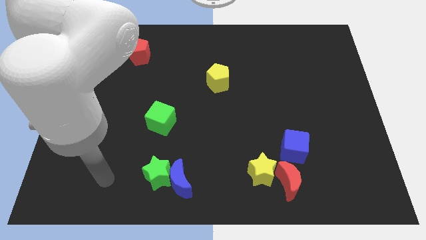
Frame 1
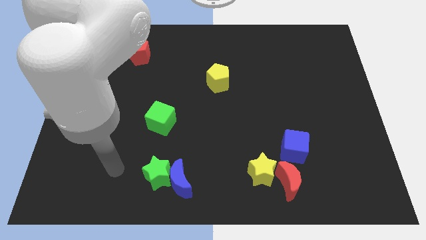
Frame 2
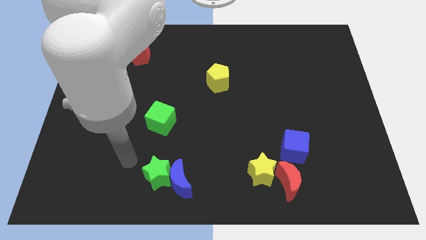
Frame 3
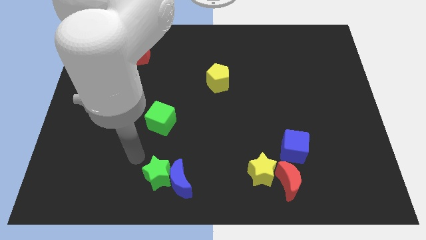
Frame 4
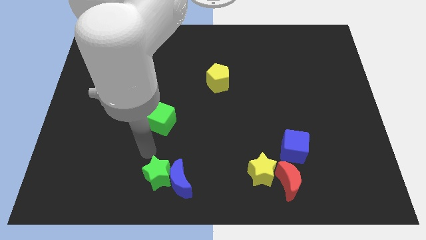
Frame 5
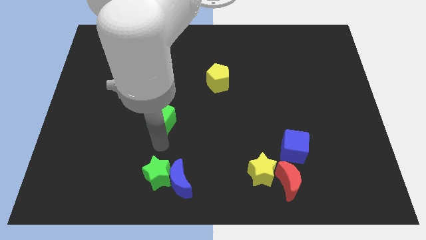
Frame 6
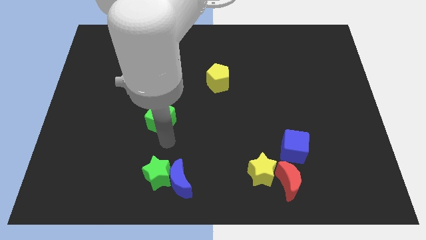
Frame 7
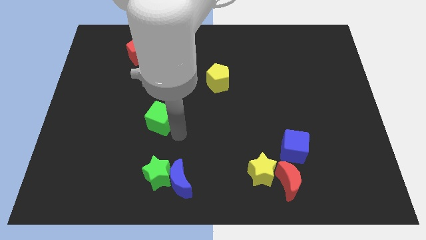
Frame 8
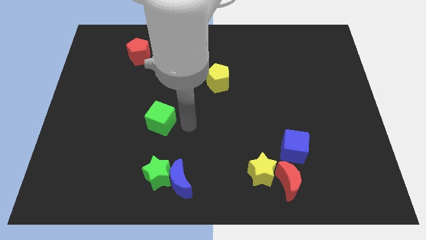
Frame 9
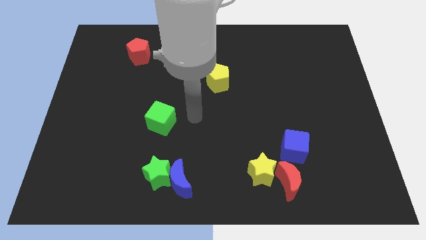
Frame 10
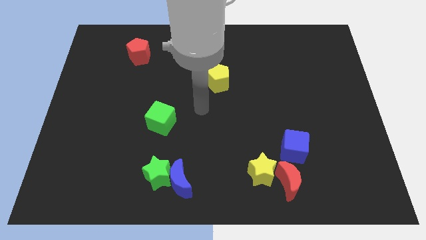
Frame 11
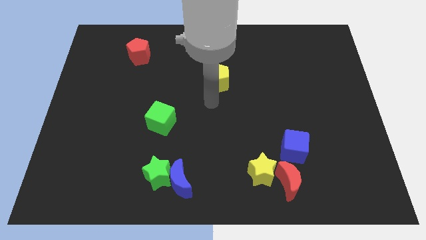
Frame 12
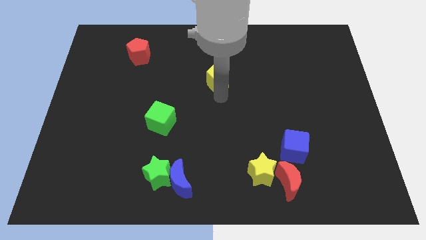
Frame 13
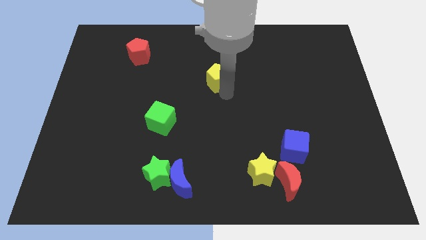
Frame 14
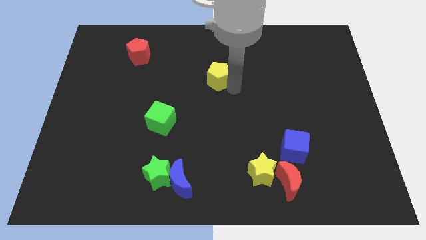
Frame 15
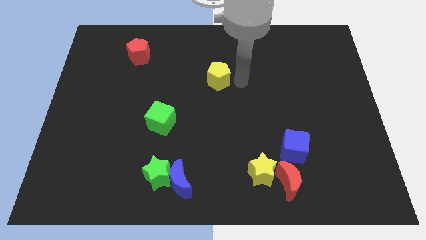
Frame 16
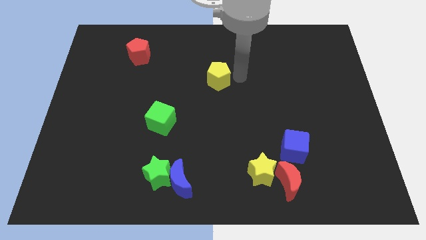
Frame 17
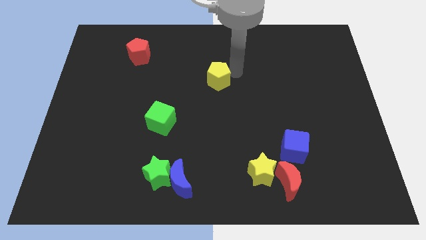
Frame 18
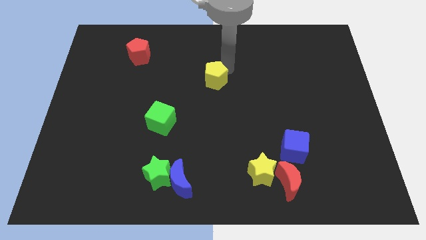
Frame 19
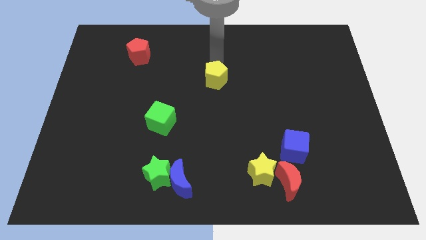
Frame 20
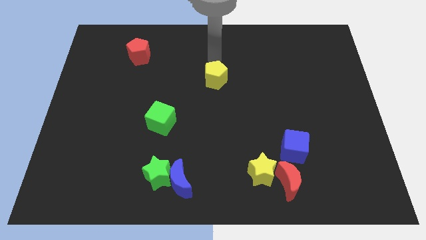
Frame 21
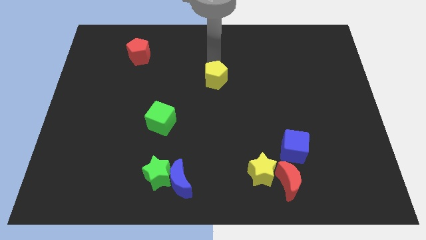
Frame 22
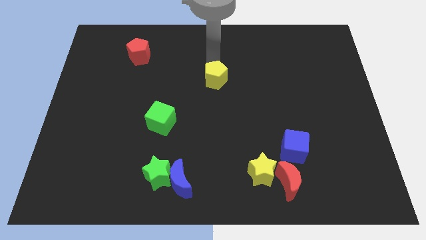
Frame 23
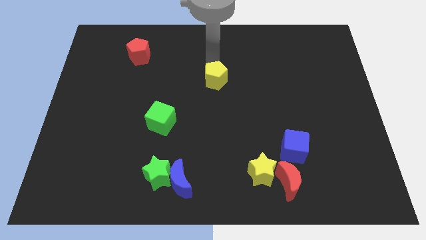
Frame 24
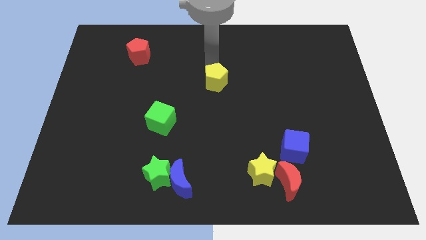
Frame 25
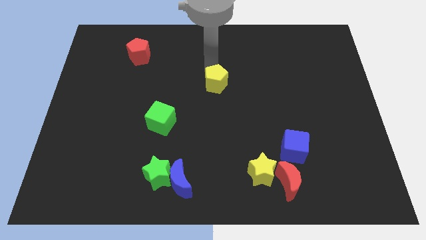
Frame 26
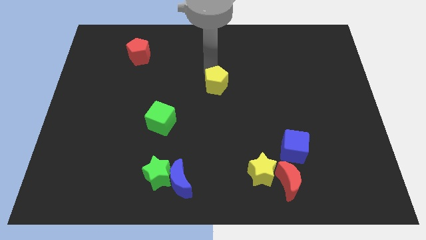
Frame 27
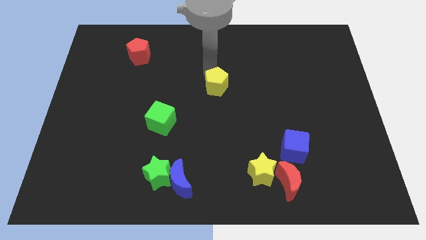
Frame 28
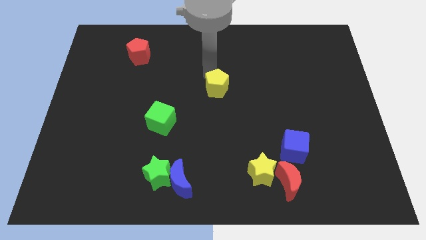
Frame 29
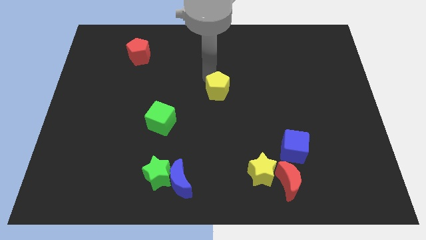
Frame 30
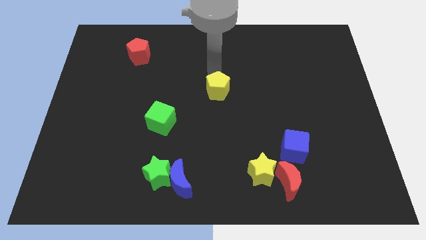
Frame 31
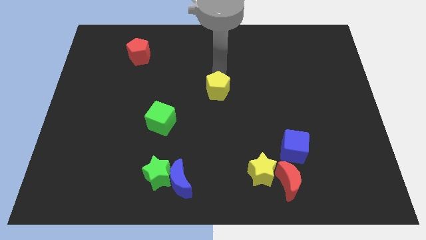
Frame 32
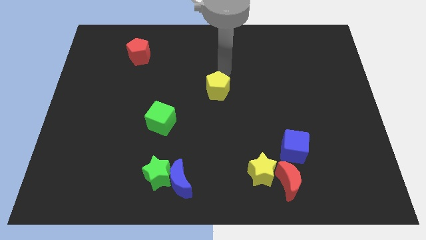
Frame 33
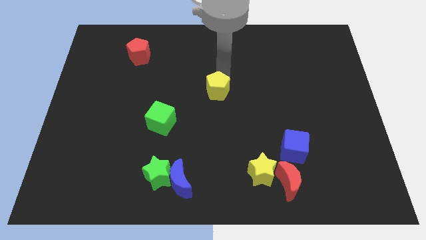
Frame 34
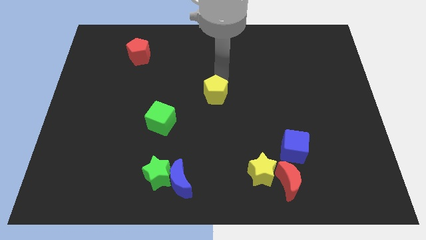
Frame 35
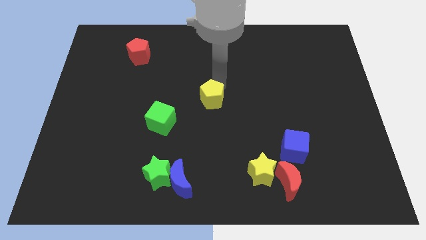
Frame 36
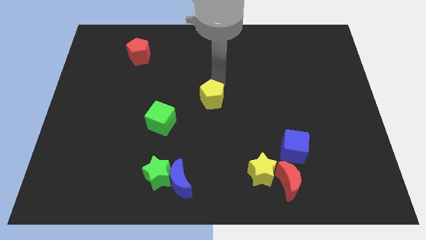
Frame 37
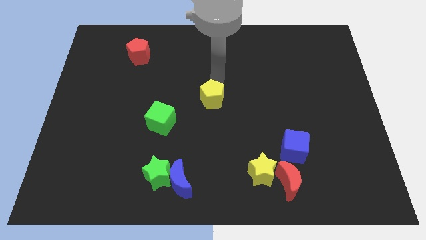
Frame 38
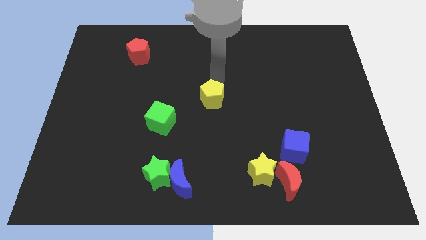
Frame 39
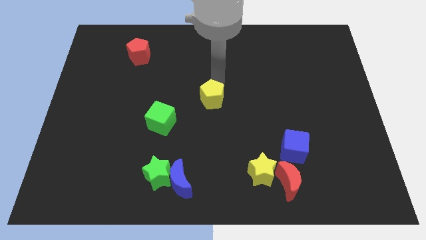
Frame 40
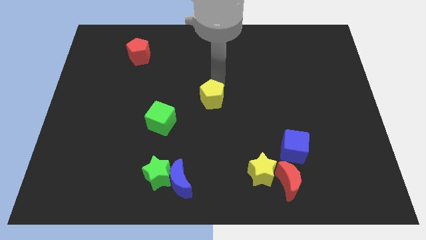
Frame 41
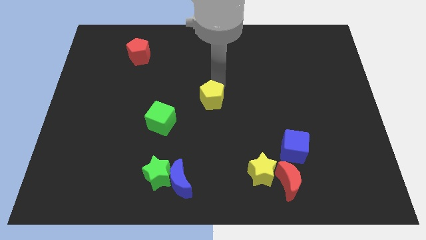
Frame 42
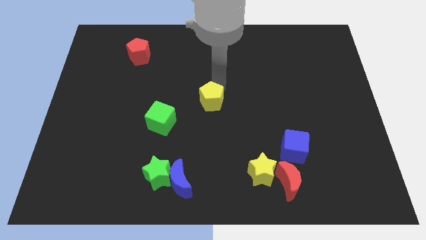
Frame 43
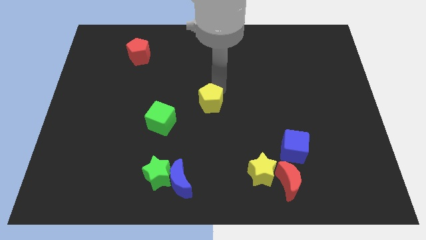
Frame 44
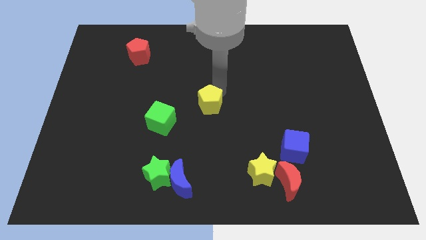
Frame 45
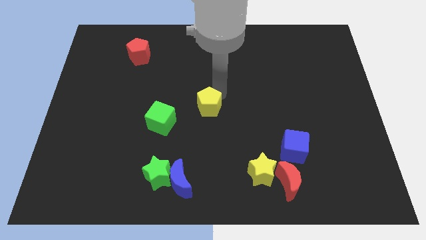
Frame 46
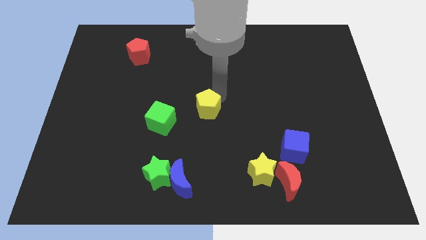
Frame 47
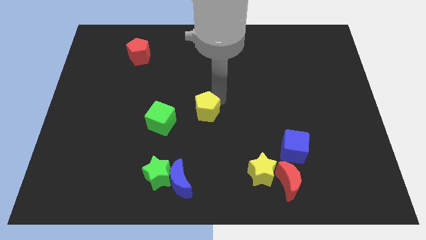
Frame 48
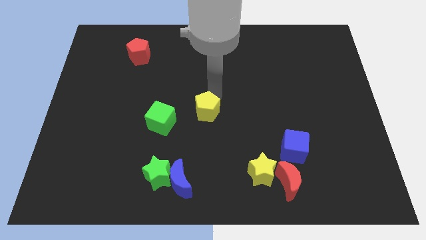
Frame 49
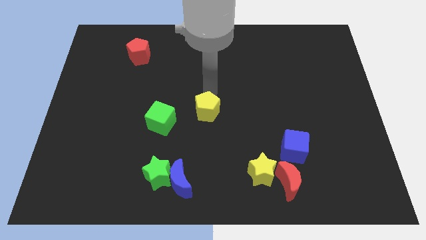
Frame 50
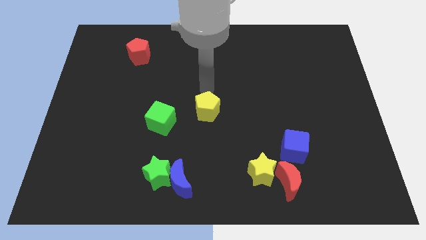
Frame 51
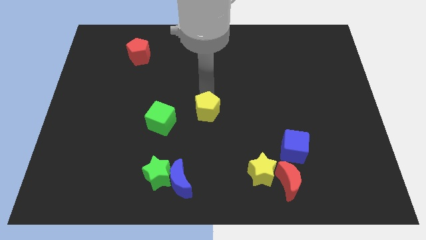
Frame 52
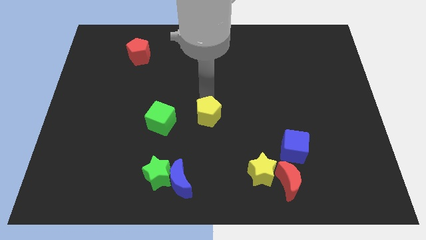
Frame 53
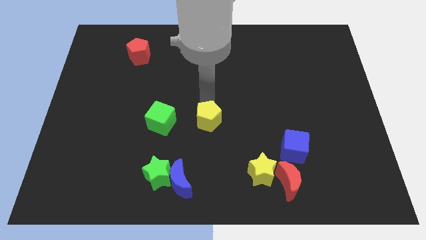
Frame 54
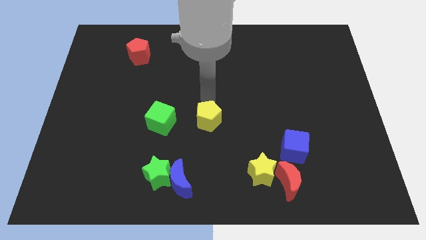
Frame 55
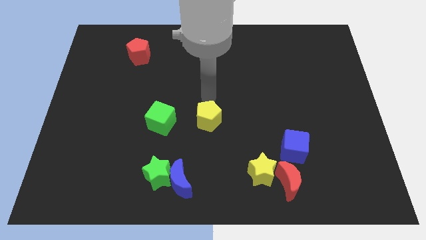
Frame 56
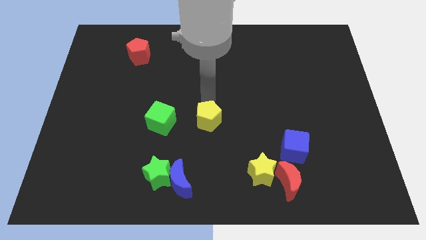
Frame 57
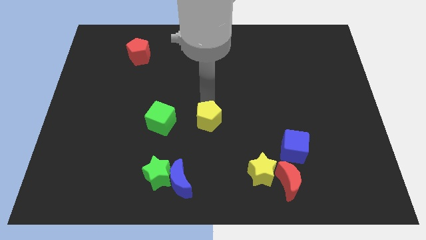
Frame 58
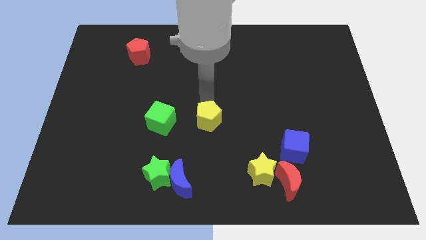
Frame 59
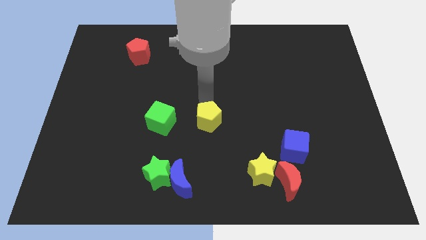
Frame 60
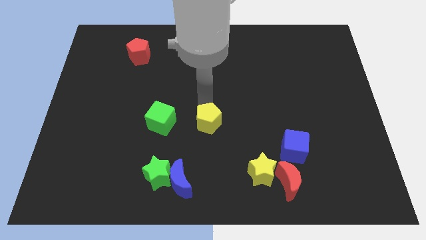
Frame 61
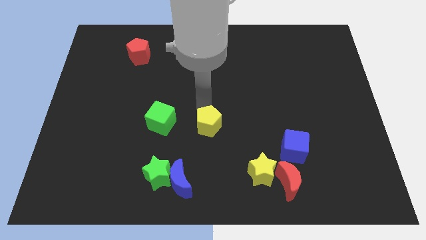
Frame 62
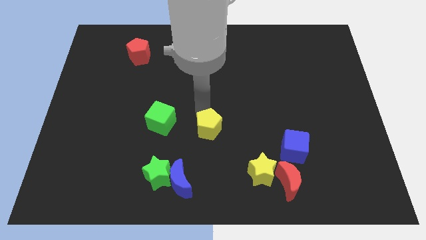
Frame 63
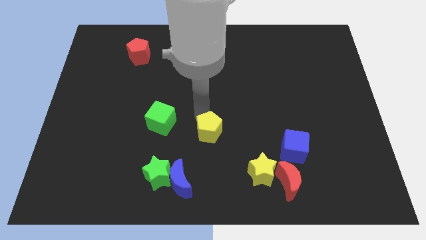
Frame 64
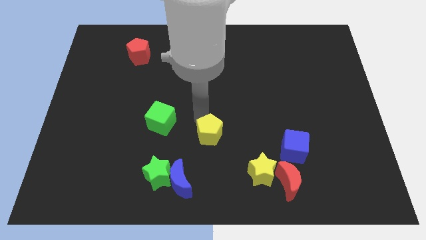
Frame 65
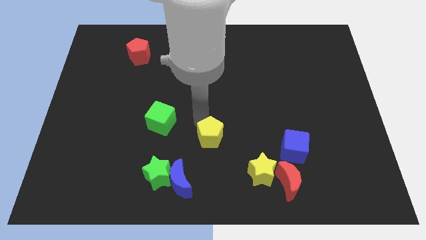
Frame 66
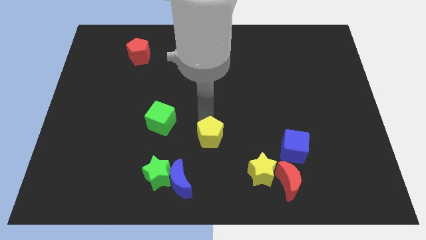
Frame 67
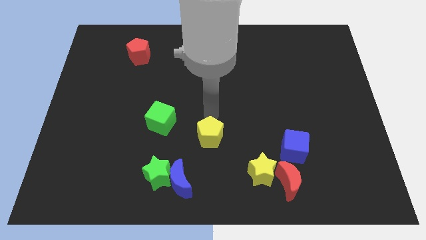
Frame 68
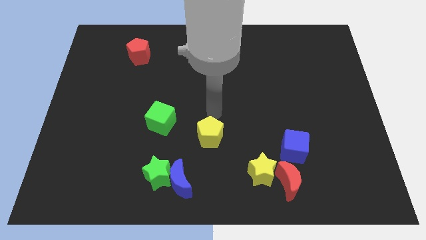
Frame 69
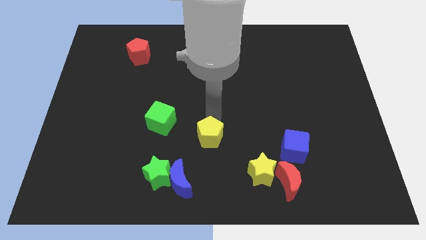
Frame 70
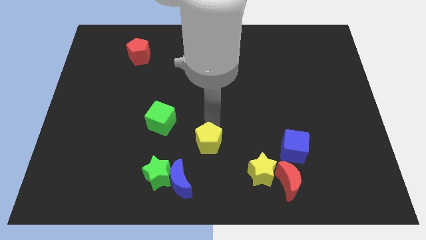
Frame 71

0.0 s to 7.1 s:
move the yellow pentagon to the top right side of the blue moon
